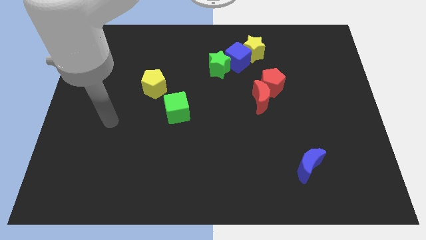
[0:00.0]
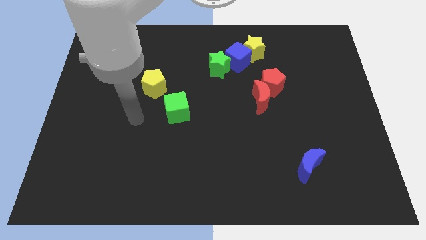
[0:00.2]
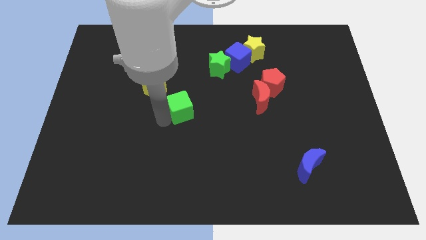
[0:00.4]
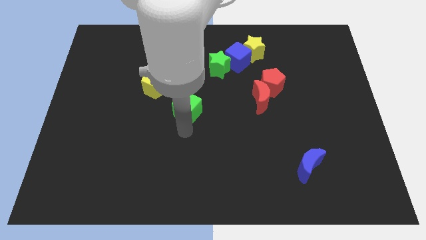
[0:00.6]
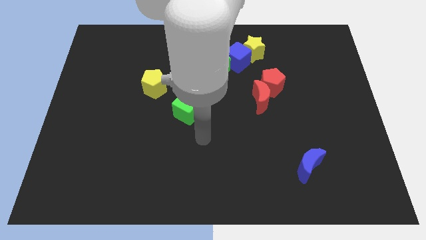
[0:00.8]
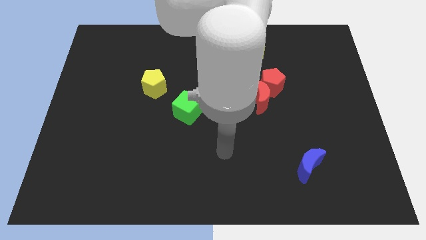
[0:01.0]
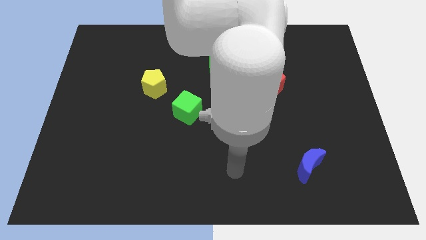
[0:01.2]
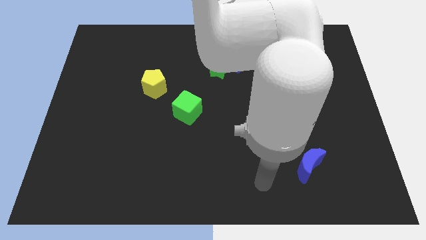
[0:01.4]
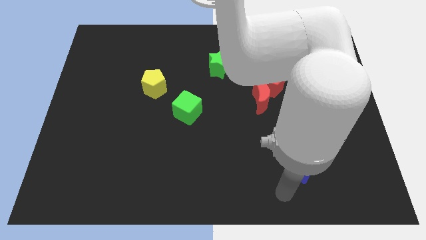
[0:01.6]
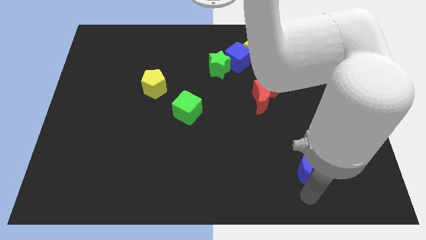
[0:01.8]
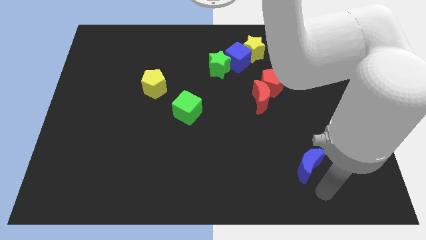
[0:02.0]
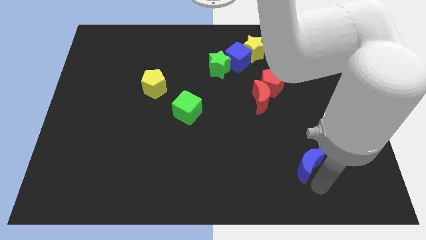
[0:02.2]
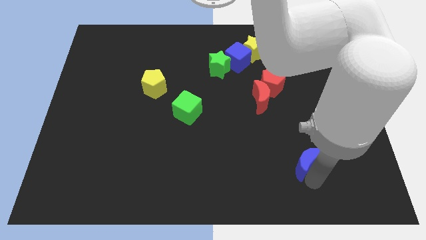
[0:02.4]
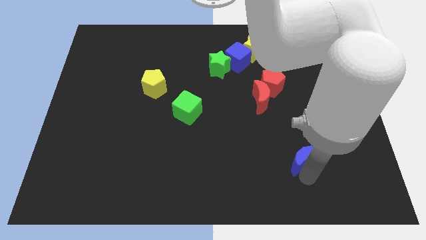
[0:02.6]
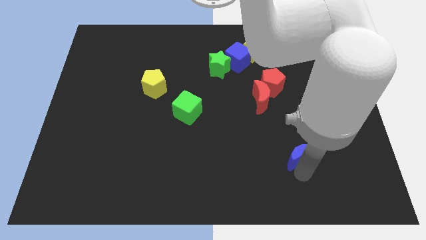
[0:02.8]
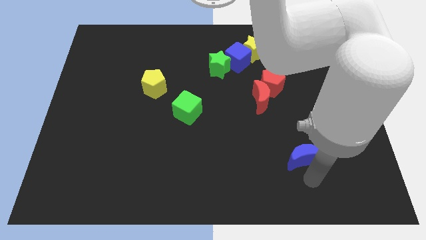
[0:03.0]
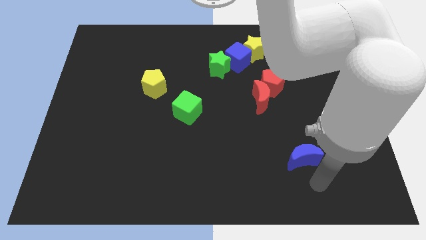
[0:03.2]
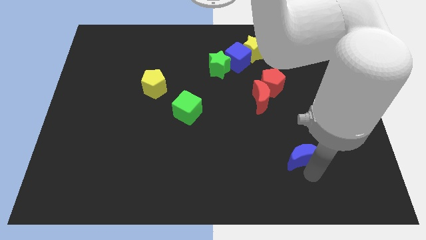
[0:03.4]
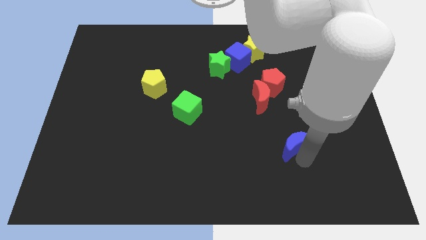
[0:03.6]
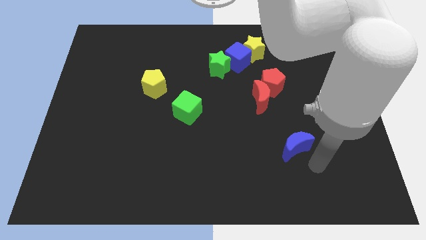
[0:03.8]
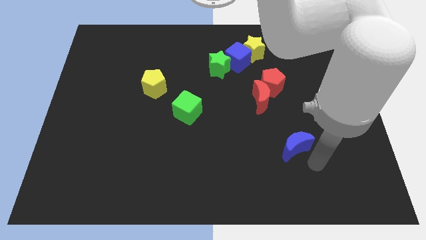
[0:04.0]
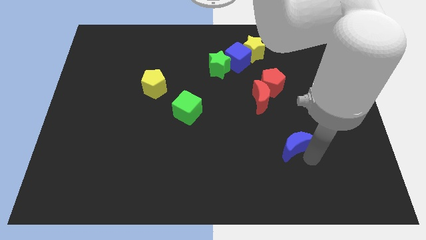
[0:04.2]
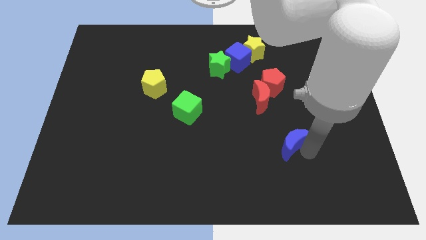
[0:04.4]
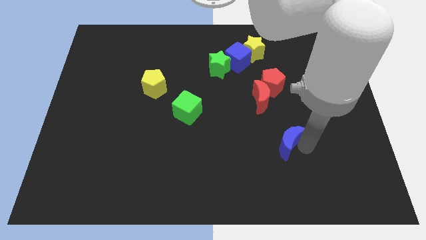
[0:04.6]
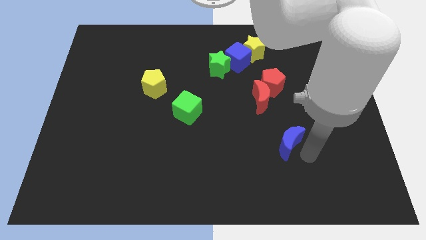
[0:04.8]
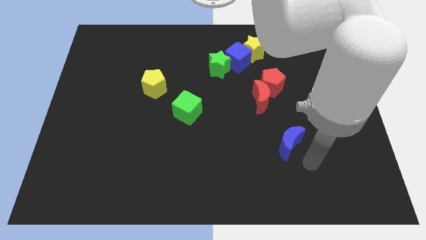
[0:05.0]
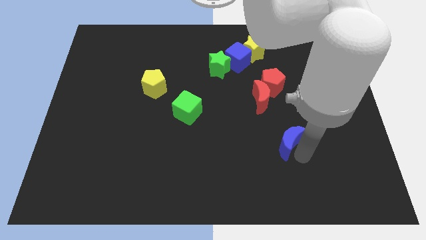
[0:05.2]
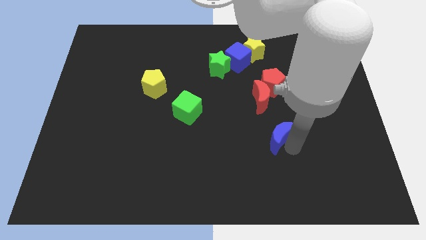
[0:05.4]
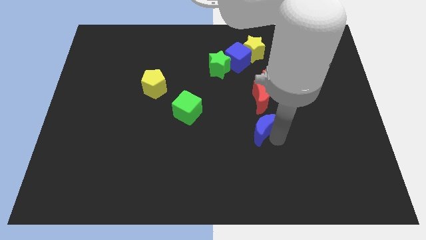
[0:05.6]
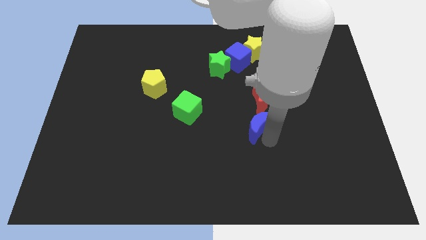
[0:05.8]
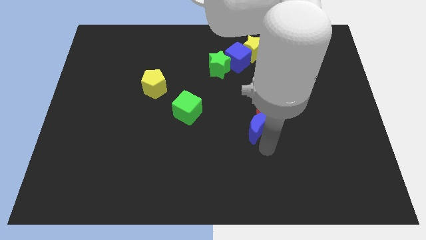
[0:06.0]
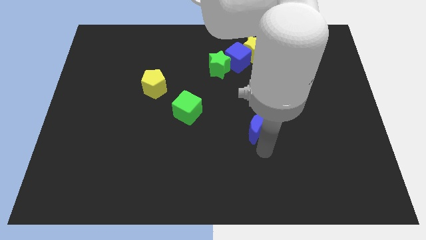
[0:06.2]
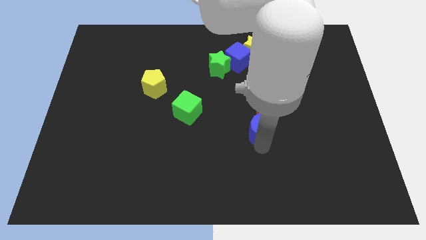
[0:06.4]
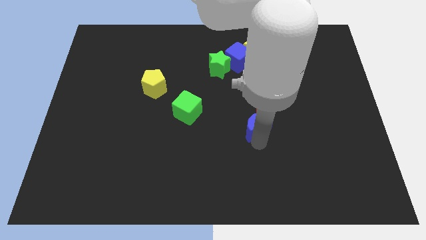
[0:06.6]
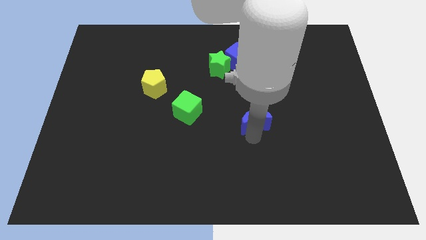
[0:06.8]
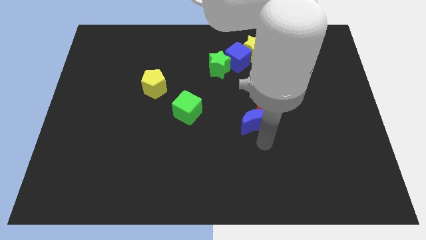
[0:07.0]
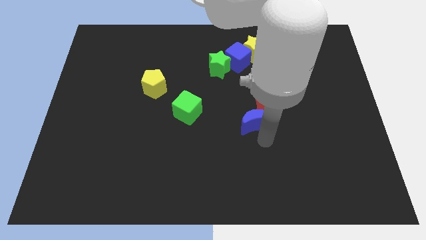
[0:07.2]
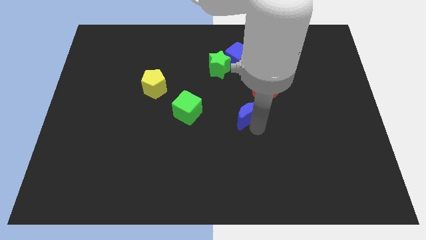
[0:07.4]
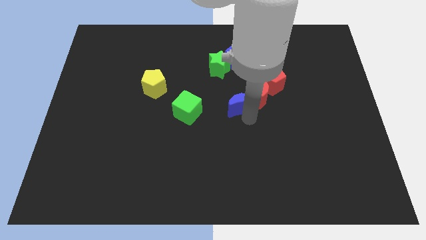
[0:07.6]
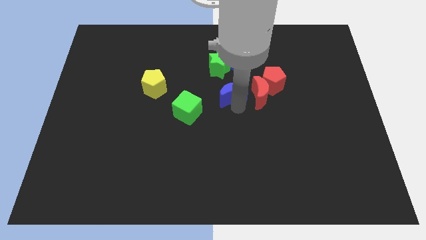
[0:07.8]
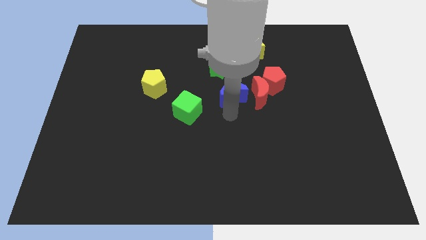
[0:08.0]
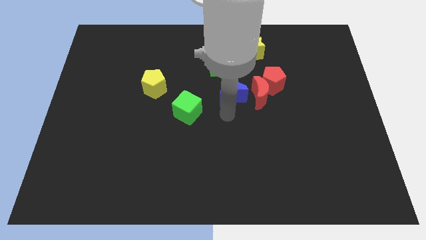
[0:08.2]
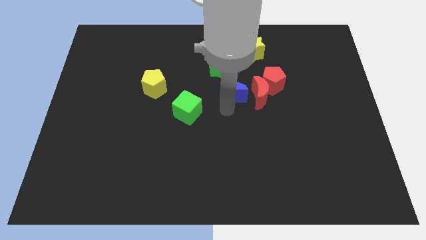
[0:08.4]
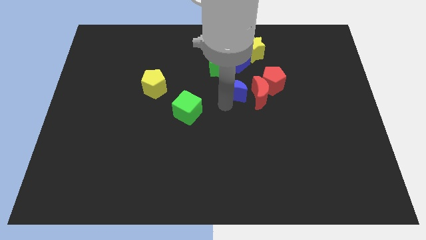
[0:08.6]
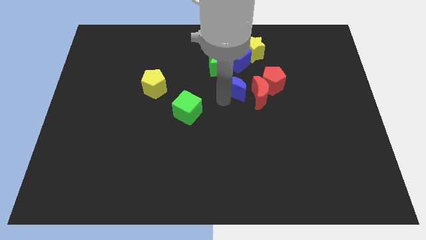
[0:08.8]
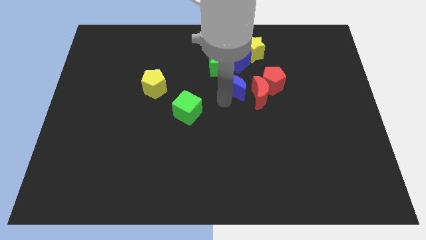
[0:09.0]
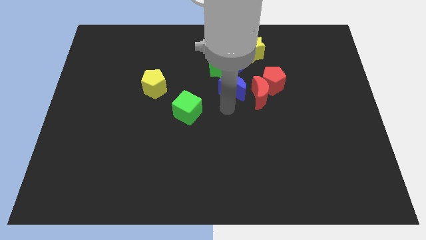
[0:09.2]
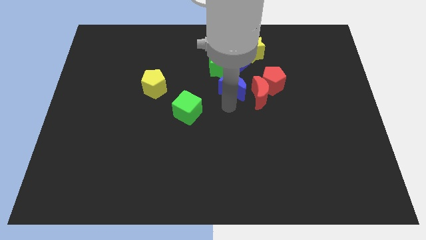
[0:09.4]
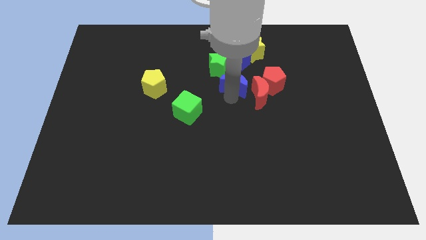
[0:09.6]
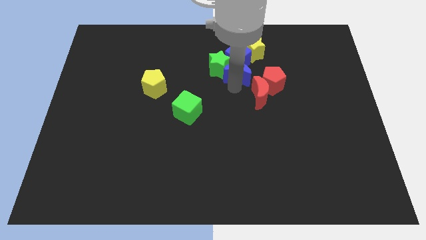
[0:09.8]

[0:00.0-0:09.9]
slide the blue moon close to the blue cube

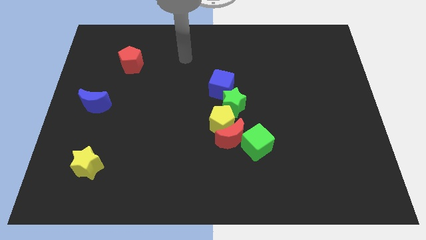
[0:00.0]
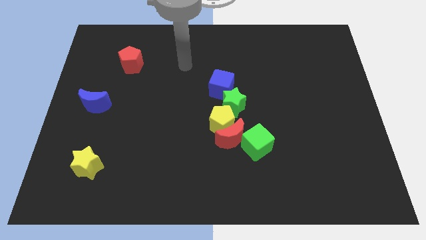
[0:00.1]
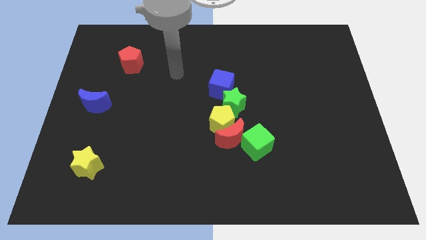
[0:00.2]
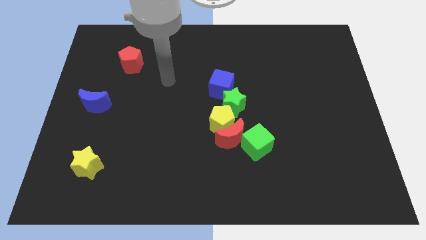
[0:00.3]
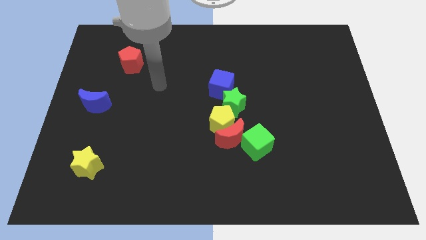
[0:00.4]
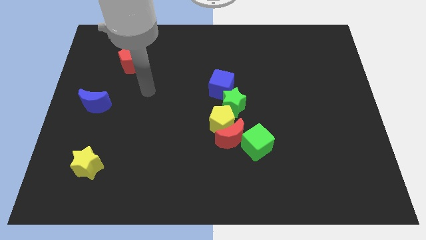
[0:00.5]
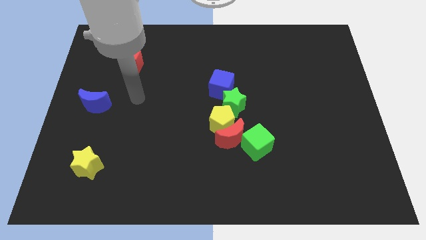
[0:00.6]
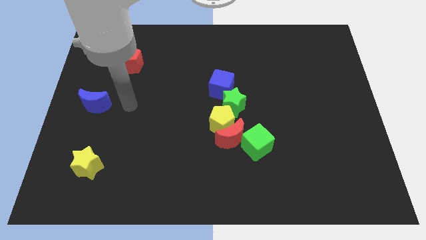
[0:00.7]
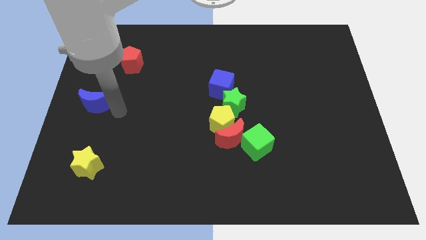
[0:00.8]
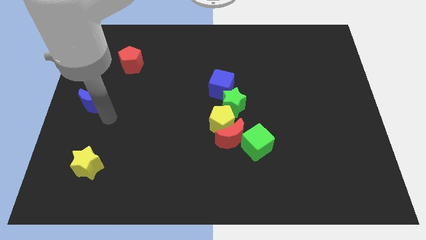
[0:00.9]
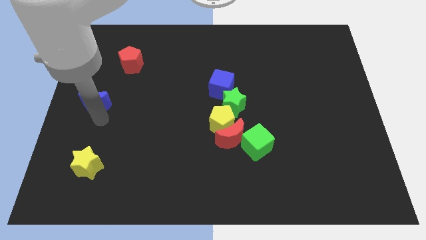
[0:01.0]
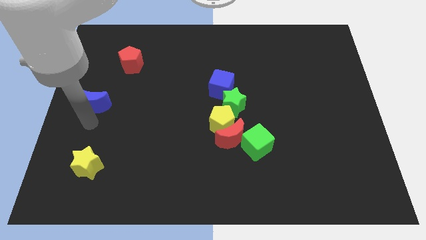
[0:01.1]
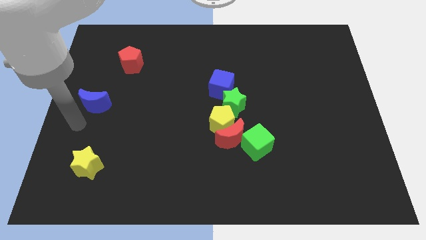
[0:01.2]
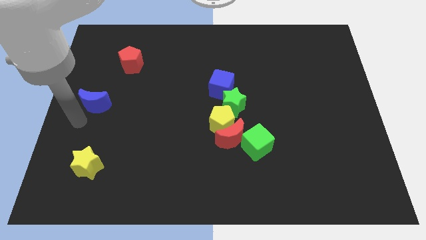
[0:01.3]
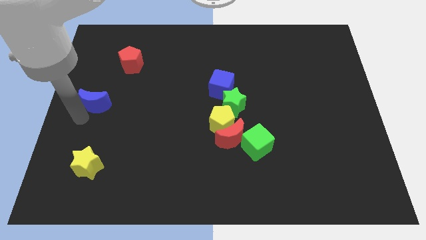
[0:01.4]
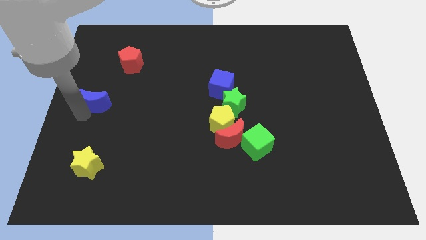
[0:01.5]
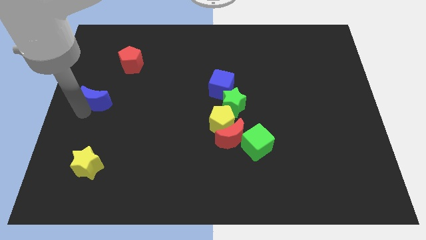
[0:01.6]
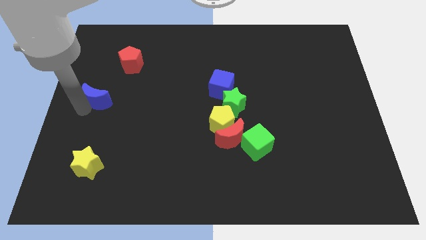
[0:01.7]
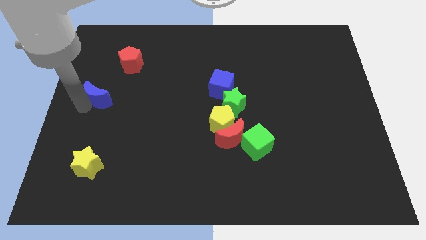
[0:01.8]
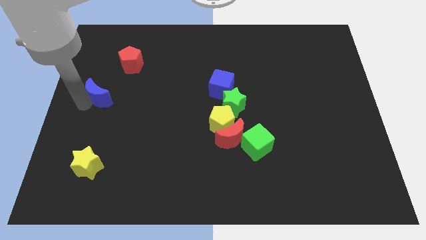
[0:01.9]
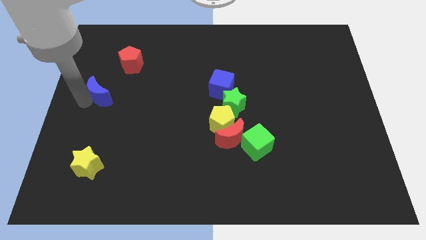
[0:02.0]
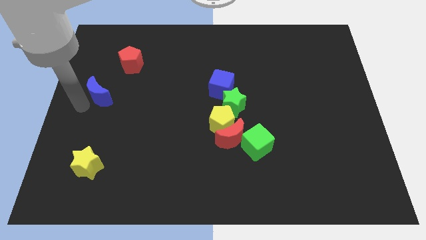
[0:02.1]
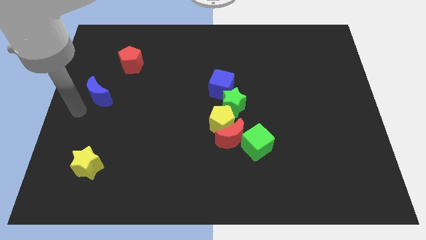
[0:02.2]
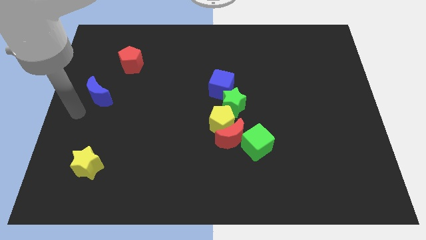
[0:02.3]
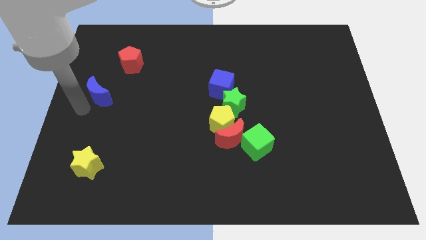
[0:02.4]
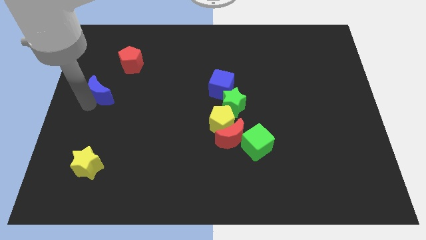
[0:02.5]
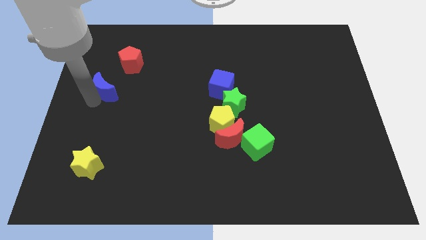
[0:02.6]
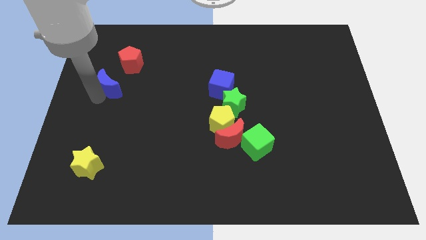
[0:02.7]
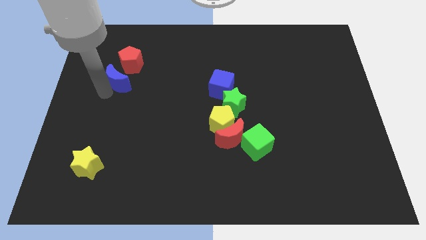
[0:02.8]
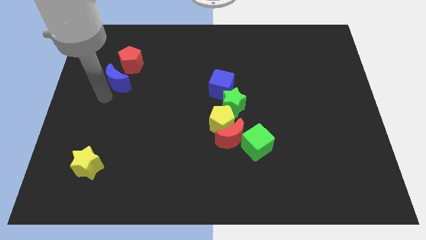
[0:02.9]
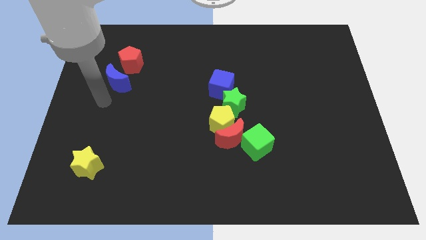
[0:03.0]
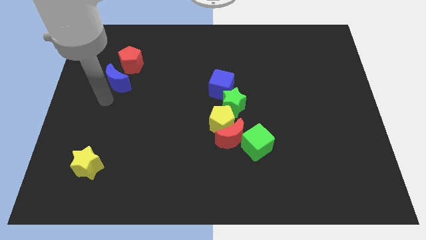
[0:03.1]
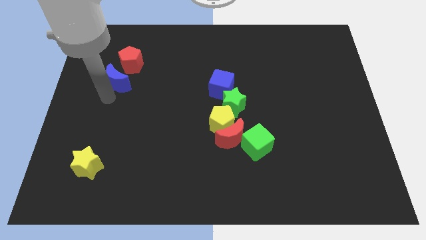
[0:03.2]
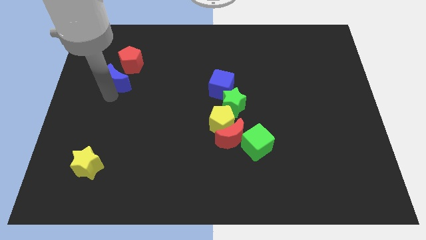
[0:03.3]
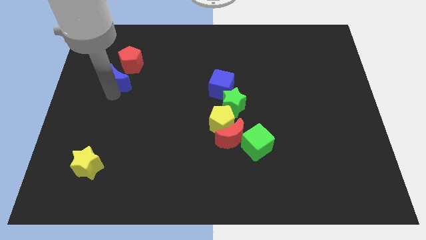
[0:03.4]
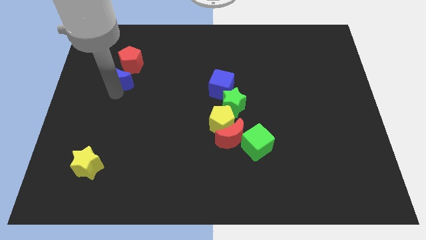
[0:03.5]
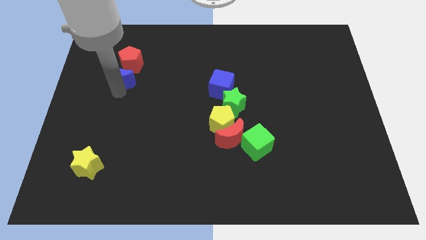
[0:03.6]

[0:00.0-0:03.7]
slide the blue moon towards the red pentagon
